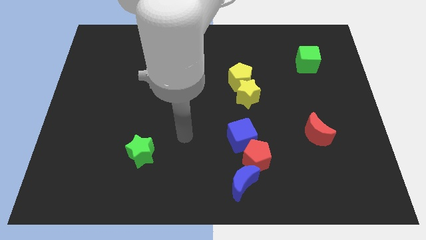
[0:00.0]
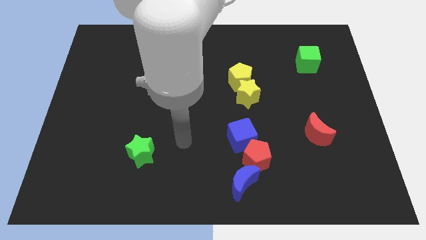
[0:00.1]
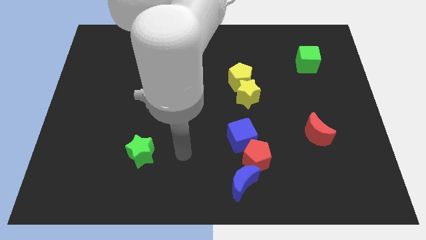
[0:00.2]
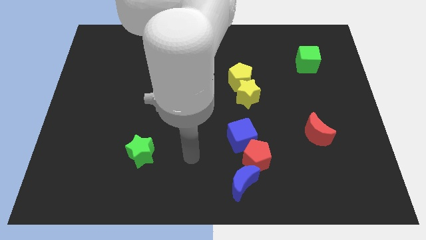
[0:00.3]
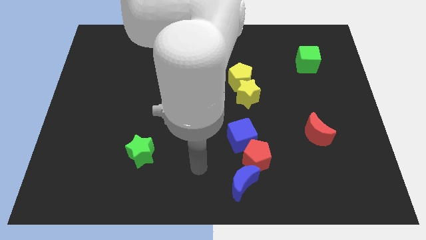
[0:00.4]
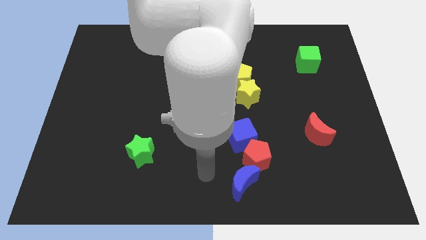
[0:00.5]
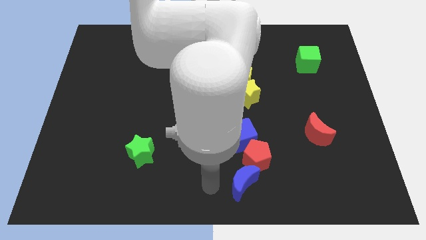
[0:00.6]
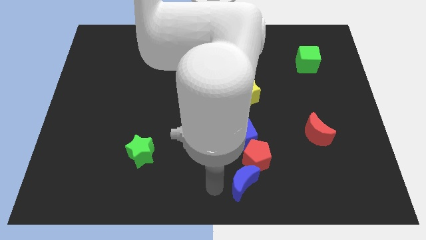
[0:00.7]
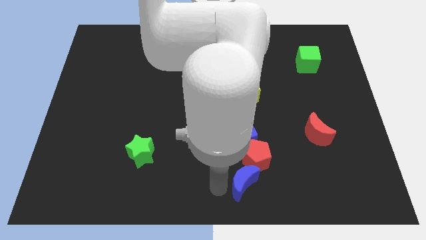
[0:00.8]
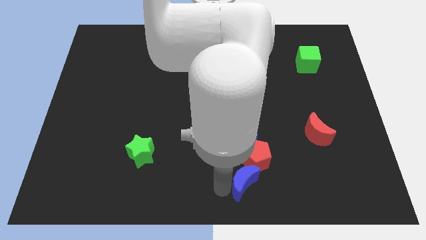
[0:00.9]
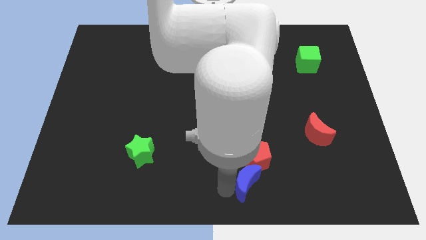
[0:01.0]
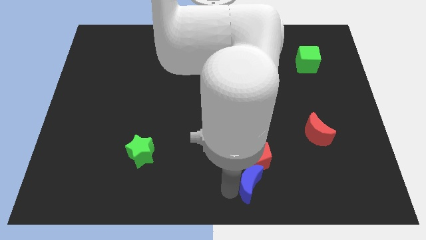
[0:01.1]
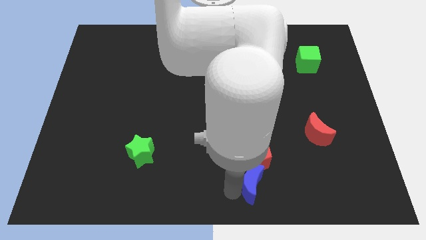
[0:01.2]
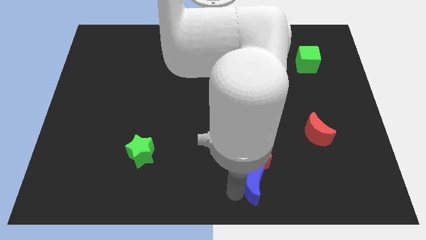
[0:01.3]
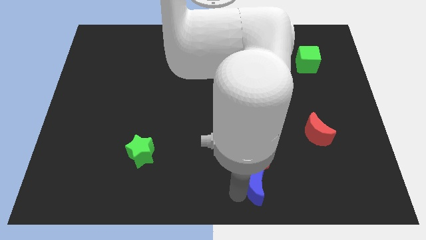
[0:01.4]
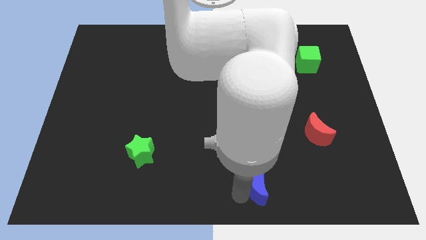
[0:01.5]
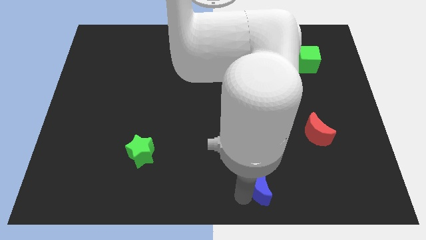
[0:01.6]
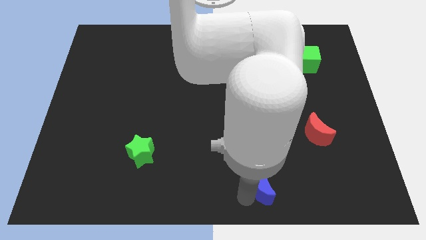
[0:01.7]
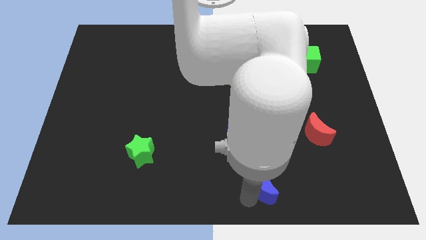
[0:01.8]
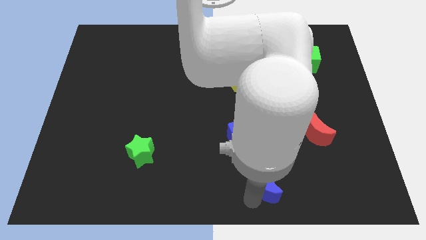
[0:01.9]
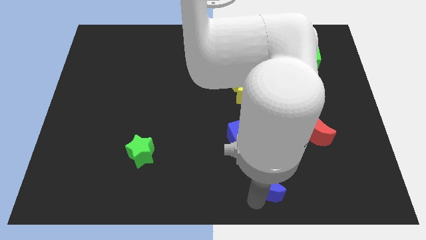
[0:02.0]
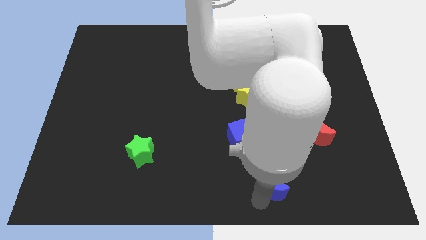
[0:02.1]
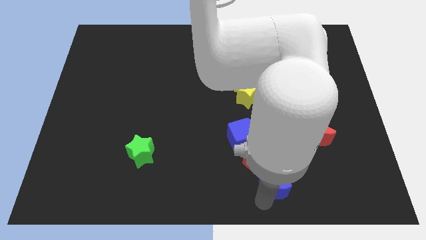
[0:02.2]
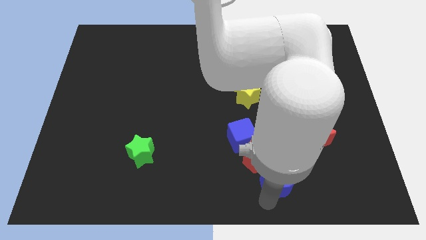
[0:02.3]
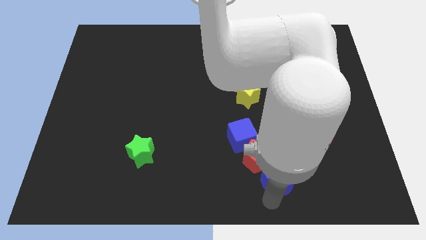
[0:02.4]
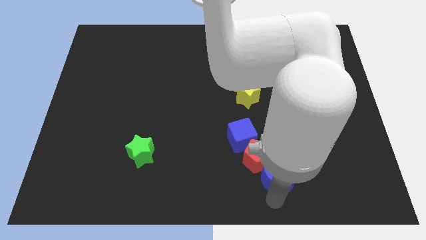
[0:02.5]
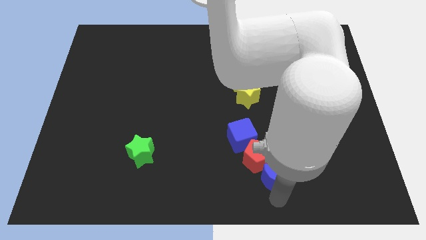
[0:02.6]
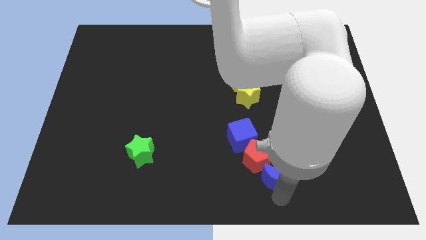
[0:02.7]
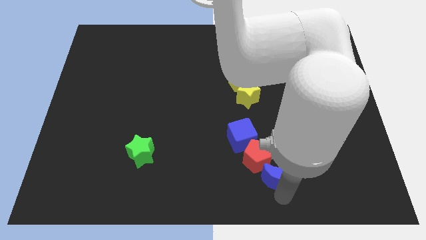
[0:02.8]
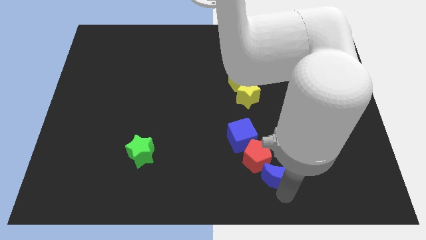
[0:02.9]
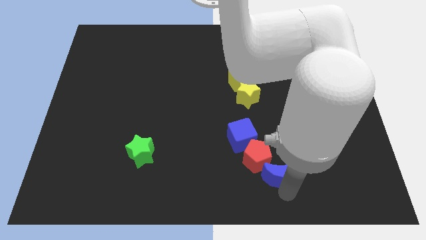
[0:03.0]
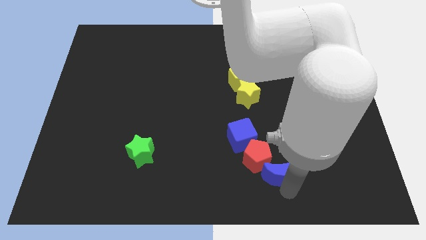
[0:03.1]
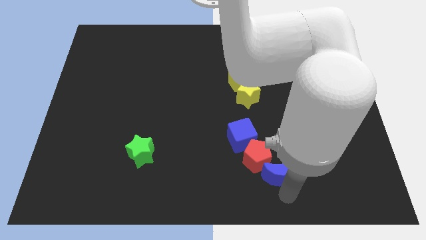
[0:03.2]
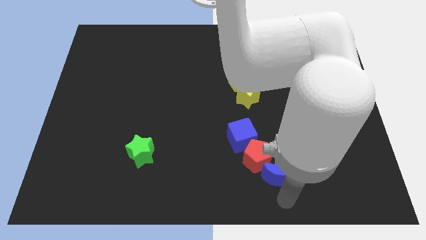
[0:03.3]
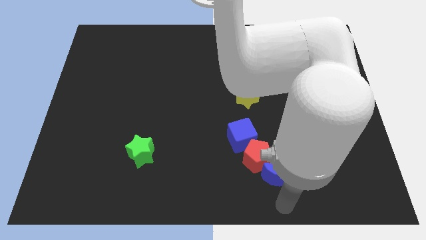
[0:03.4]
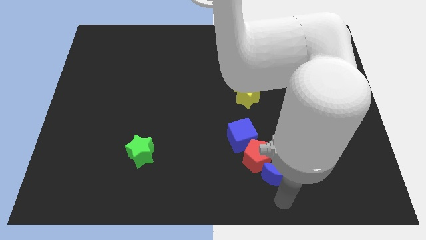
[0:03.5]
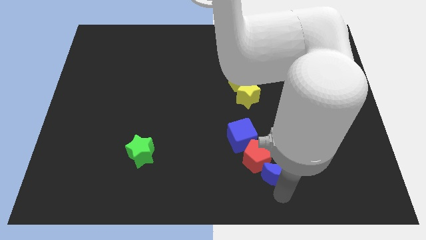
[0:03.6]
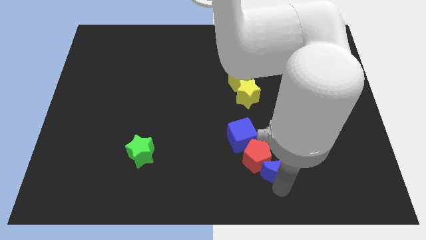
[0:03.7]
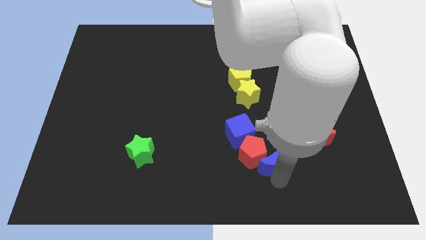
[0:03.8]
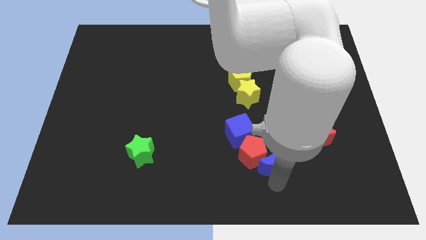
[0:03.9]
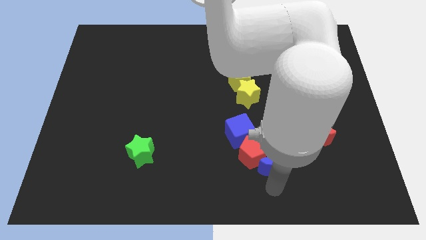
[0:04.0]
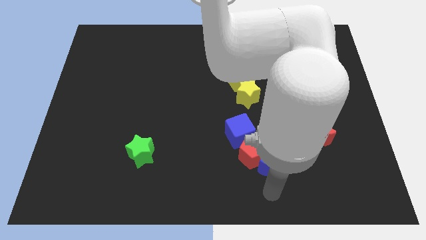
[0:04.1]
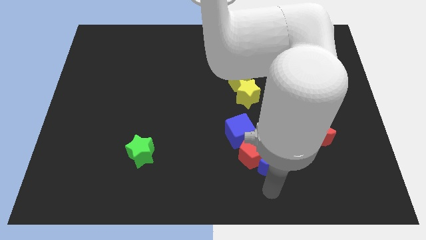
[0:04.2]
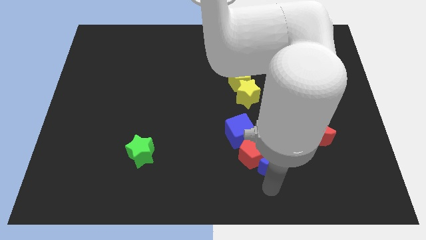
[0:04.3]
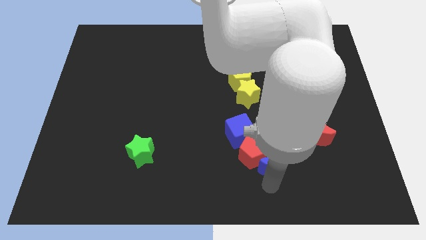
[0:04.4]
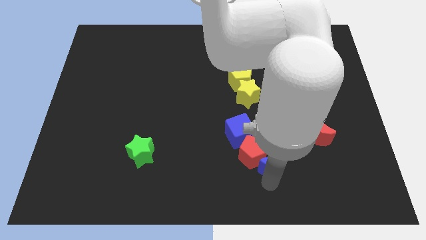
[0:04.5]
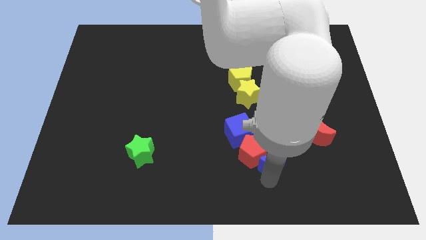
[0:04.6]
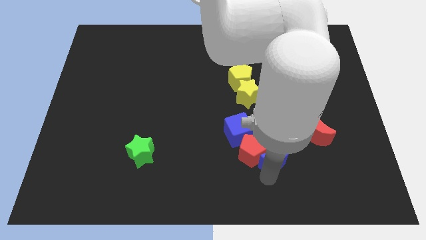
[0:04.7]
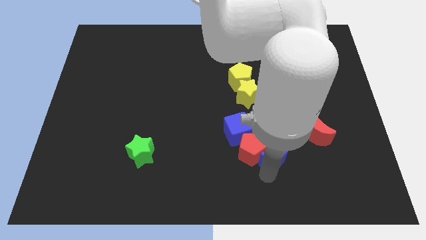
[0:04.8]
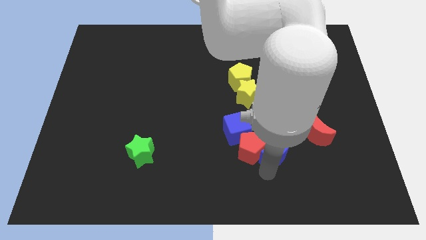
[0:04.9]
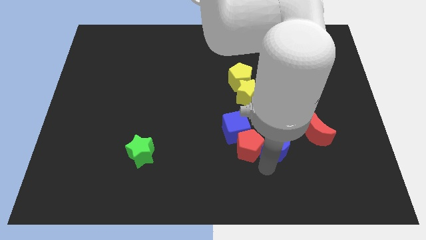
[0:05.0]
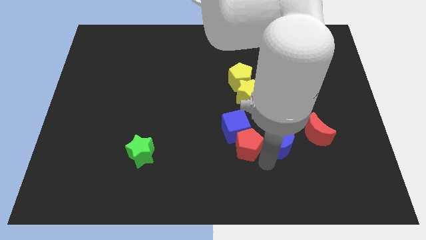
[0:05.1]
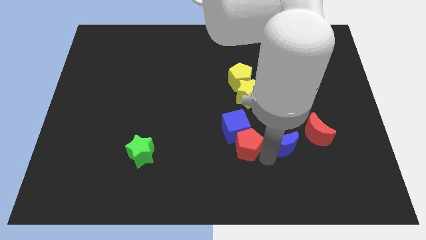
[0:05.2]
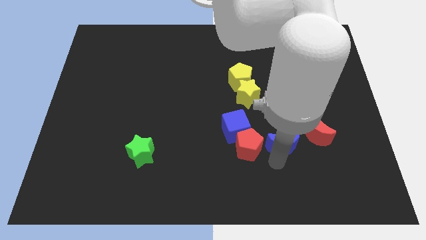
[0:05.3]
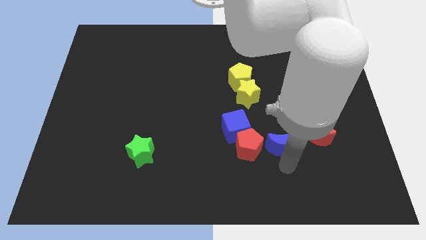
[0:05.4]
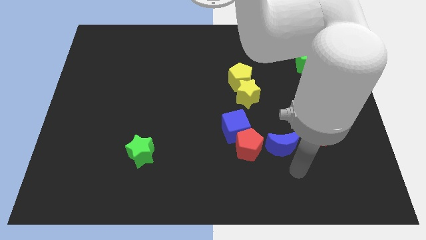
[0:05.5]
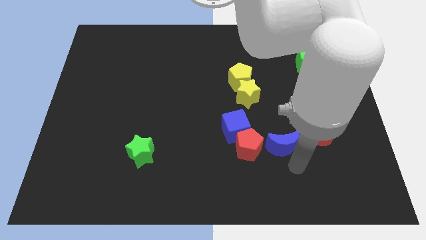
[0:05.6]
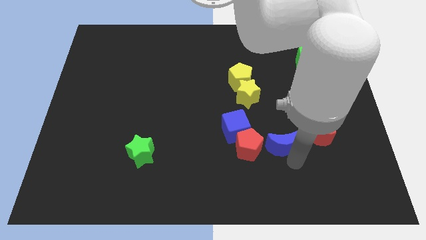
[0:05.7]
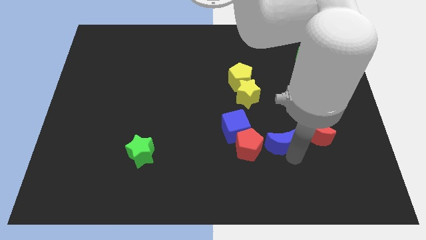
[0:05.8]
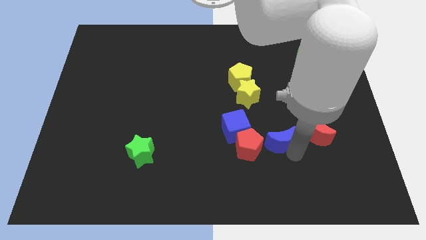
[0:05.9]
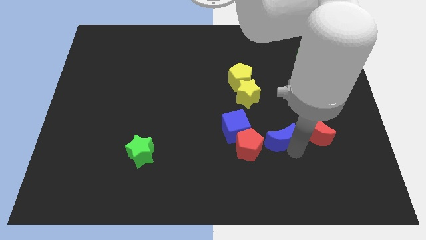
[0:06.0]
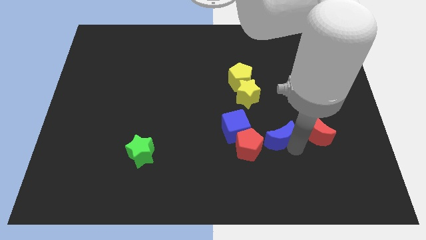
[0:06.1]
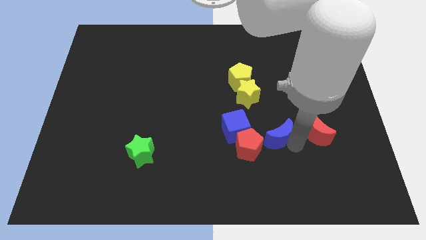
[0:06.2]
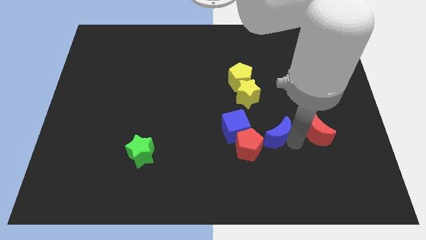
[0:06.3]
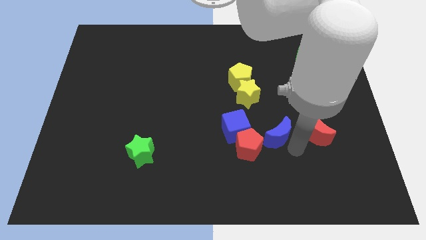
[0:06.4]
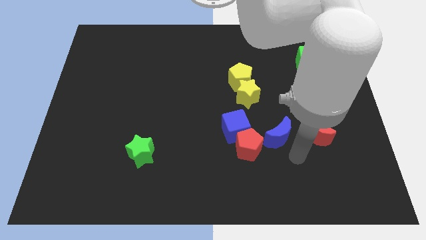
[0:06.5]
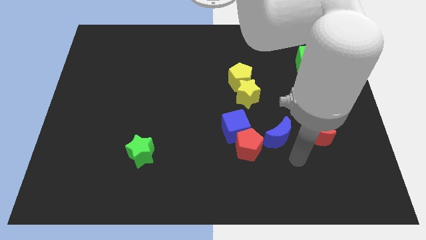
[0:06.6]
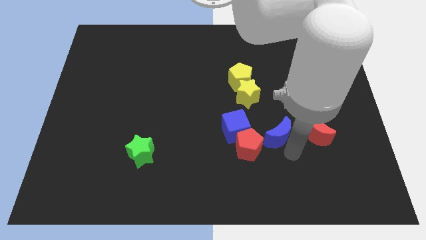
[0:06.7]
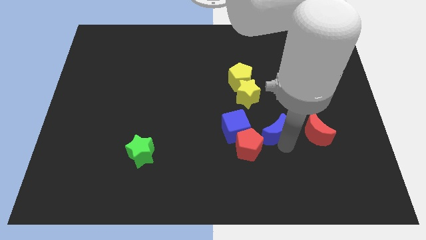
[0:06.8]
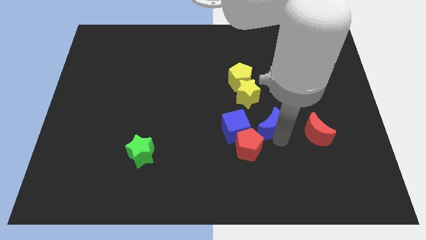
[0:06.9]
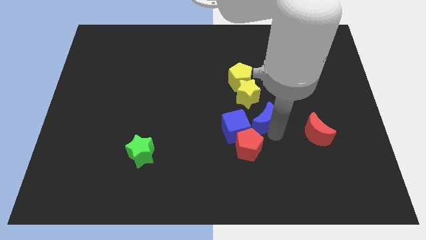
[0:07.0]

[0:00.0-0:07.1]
move the blue moon to the top right side of the blue cube
